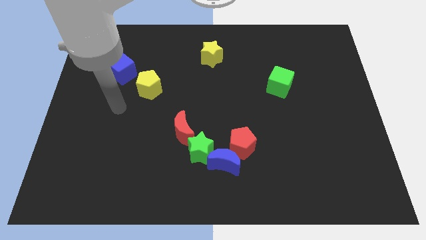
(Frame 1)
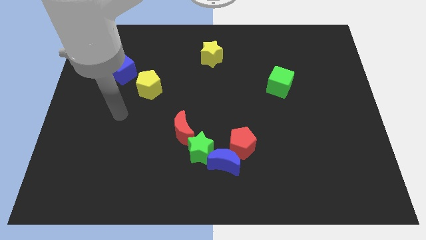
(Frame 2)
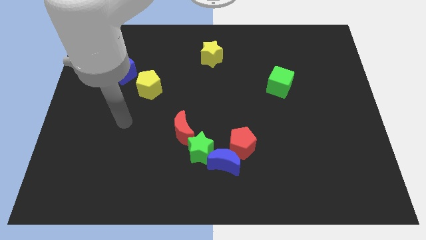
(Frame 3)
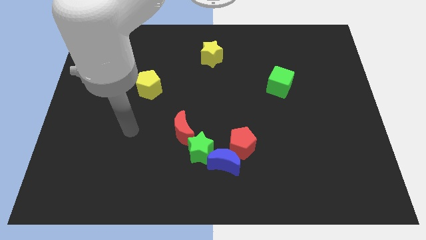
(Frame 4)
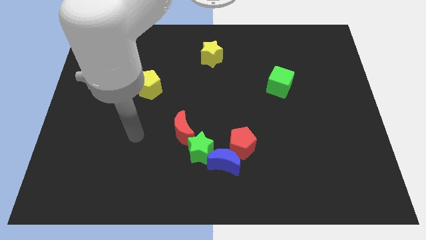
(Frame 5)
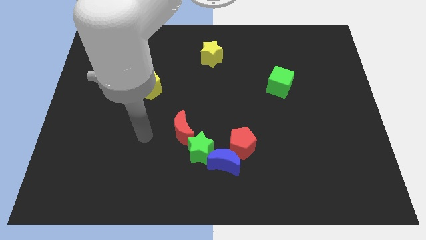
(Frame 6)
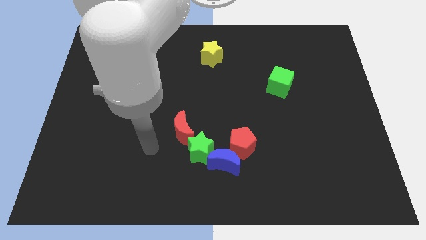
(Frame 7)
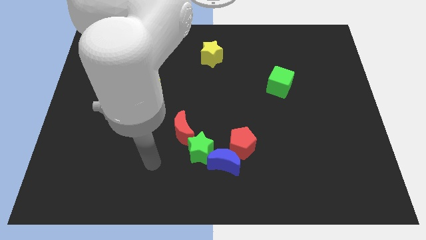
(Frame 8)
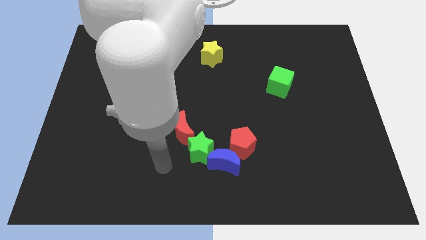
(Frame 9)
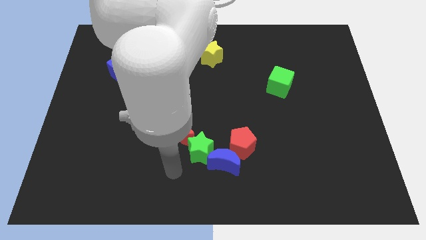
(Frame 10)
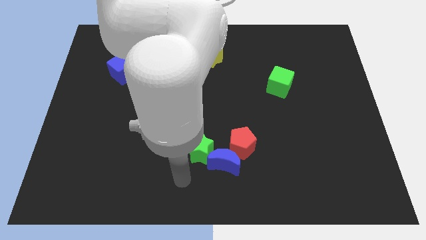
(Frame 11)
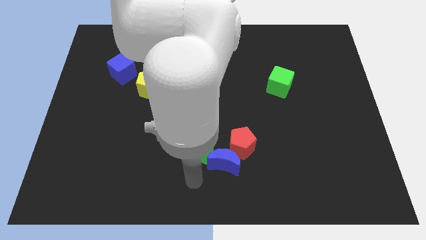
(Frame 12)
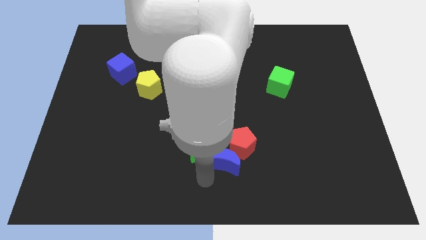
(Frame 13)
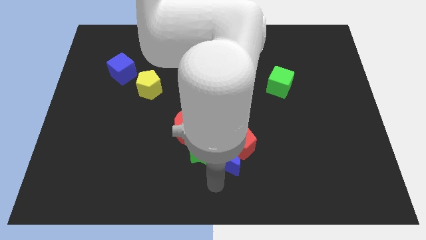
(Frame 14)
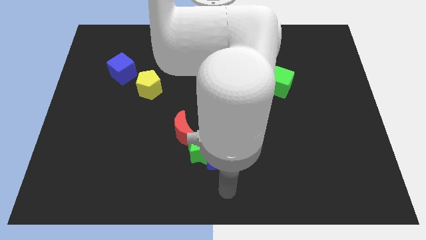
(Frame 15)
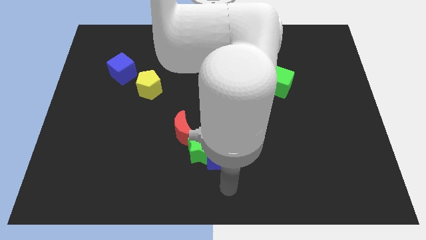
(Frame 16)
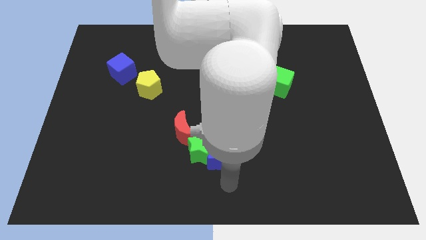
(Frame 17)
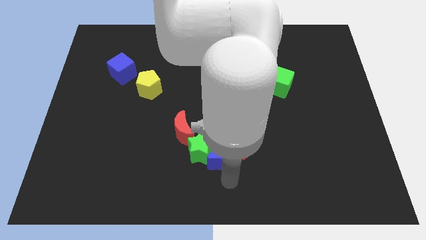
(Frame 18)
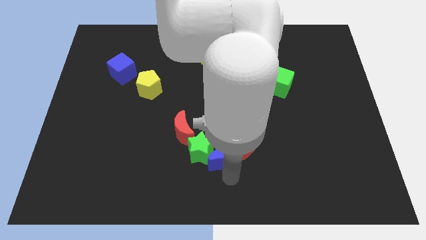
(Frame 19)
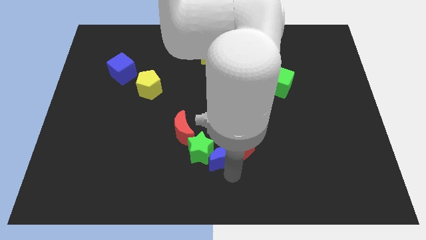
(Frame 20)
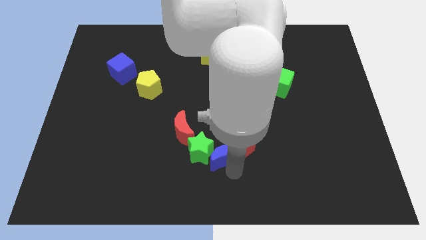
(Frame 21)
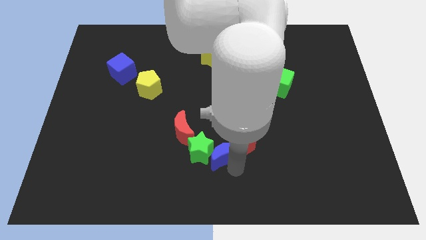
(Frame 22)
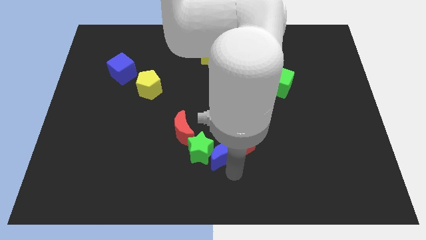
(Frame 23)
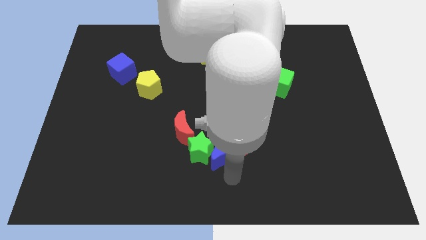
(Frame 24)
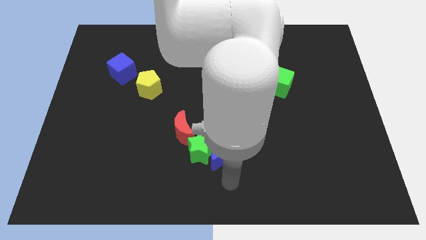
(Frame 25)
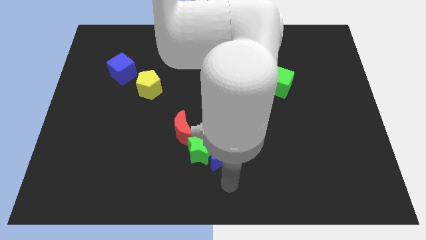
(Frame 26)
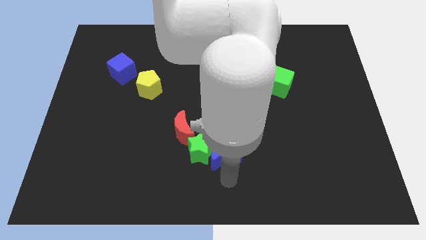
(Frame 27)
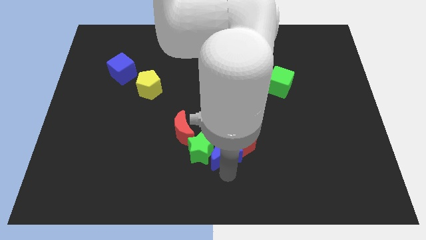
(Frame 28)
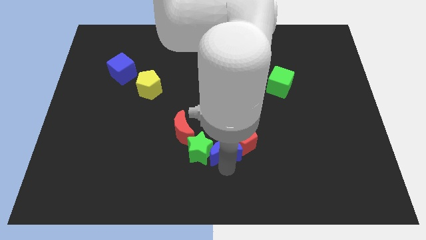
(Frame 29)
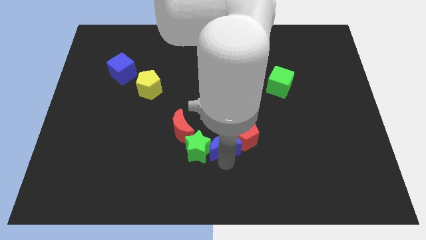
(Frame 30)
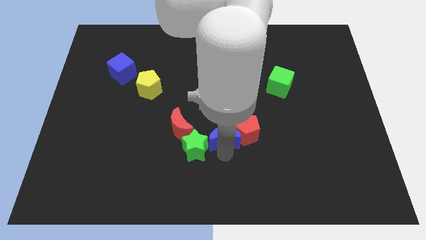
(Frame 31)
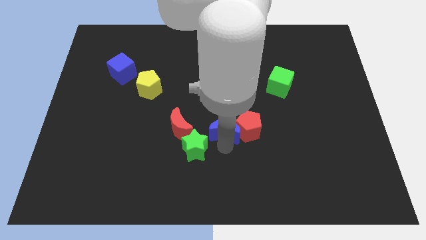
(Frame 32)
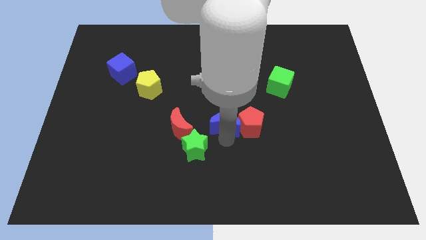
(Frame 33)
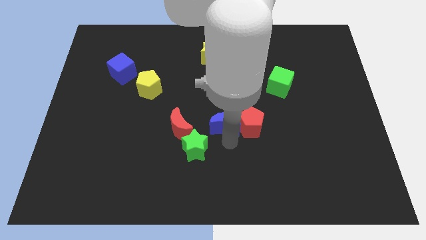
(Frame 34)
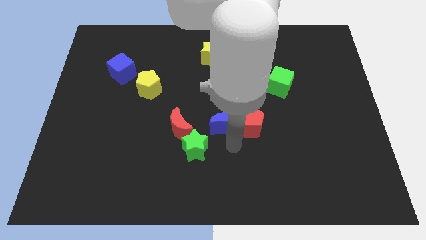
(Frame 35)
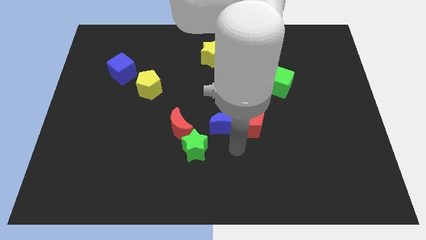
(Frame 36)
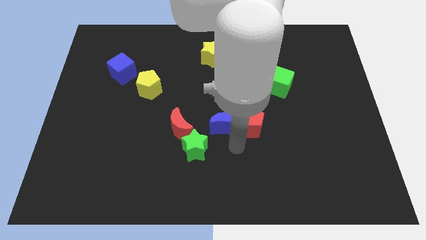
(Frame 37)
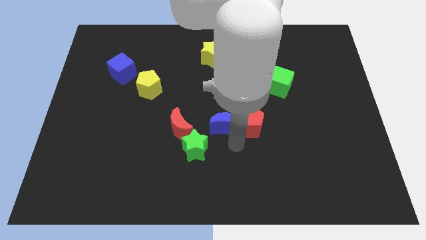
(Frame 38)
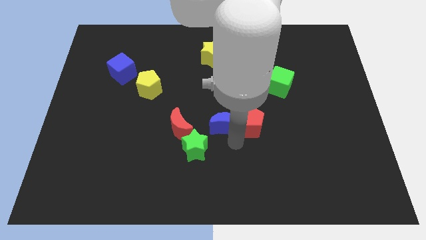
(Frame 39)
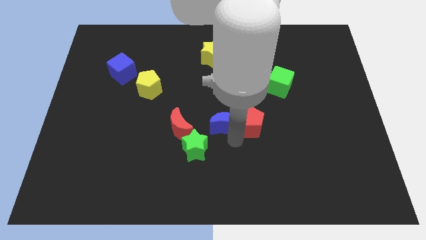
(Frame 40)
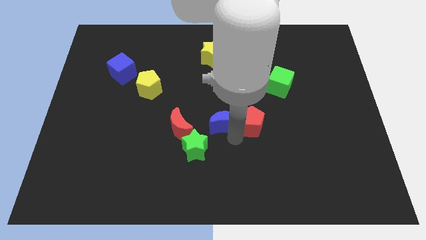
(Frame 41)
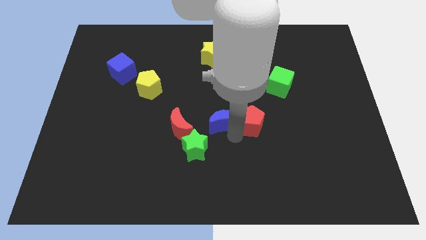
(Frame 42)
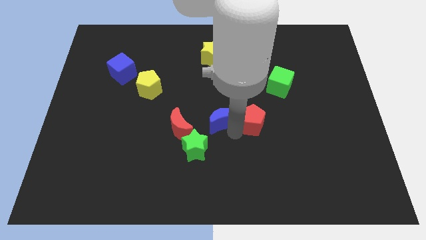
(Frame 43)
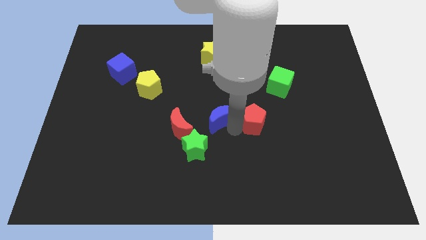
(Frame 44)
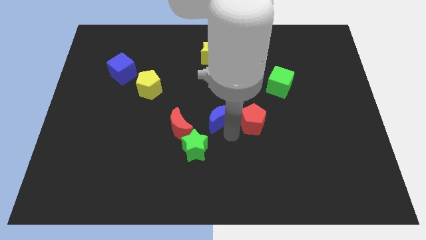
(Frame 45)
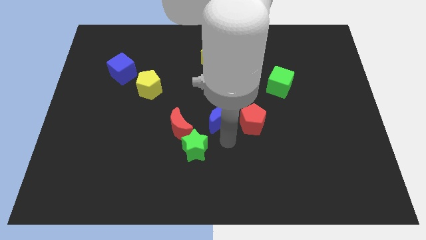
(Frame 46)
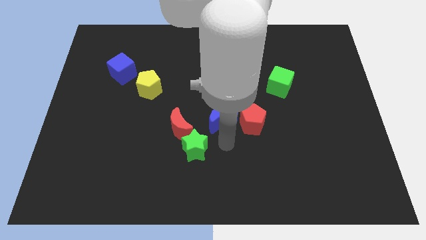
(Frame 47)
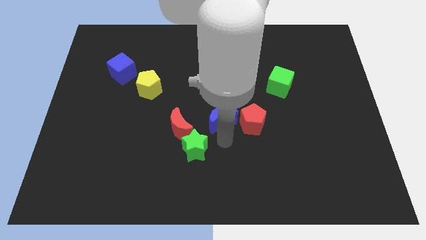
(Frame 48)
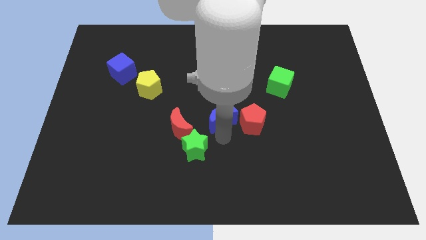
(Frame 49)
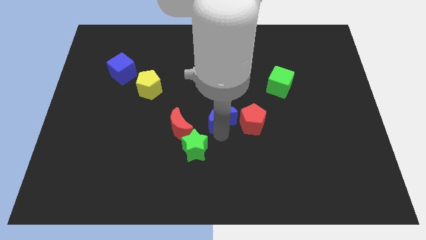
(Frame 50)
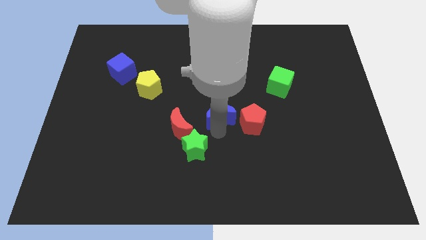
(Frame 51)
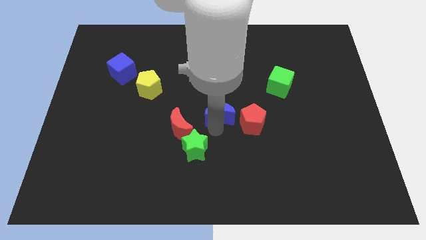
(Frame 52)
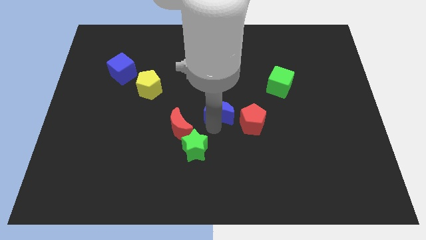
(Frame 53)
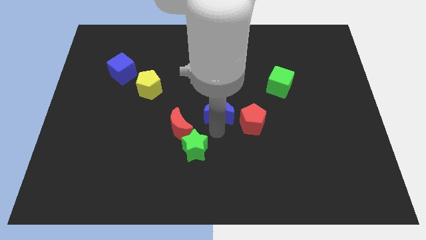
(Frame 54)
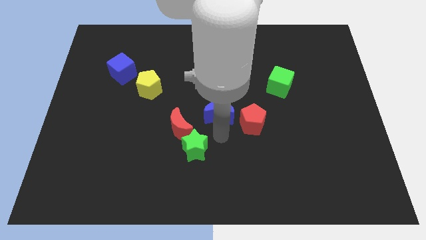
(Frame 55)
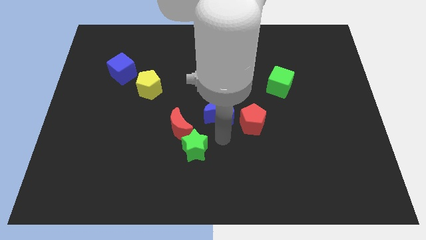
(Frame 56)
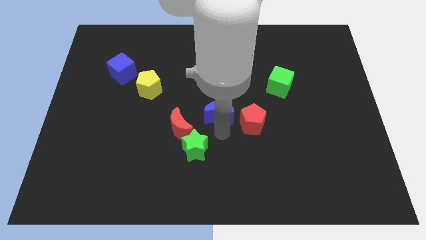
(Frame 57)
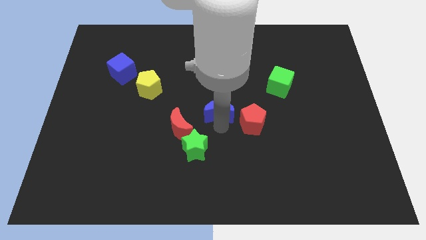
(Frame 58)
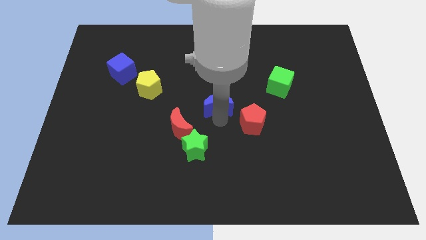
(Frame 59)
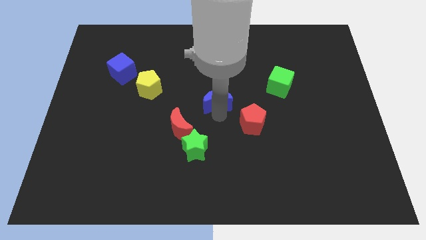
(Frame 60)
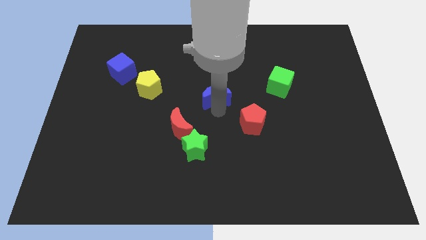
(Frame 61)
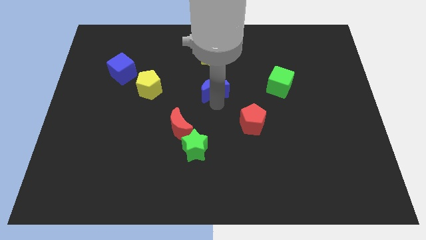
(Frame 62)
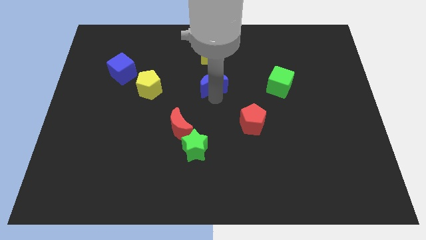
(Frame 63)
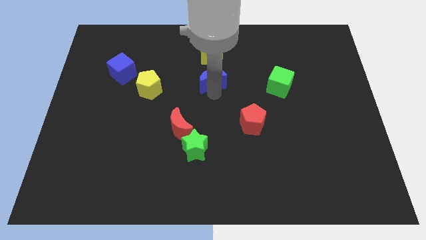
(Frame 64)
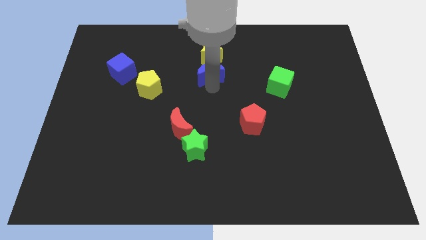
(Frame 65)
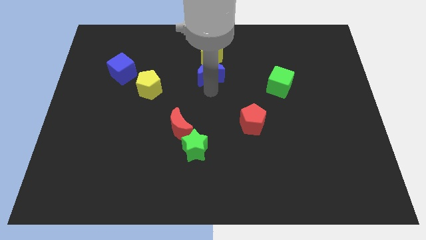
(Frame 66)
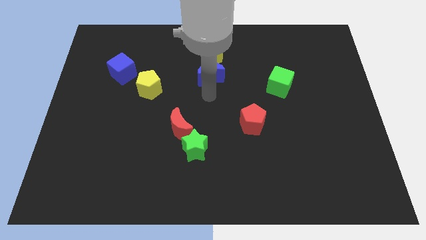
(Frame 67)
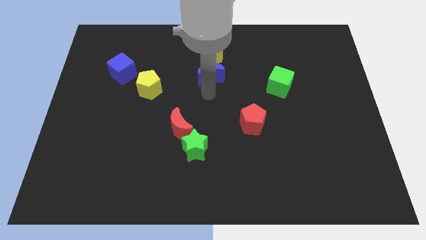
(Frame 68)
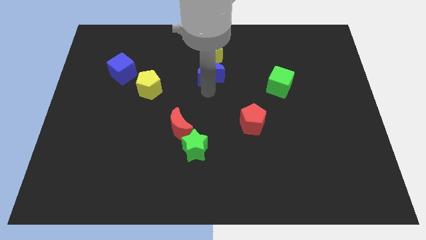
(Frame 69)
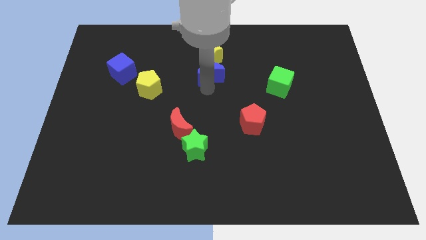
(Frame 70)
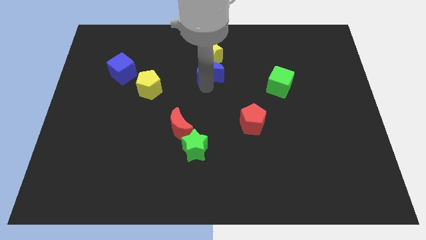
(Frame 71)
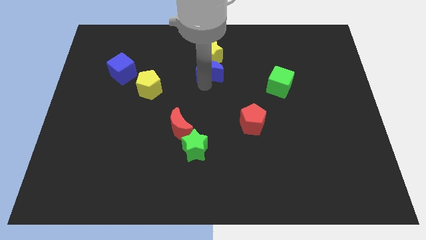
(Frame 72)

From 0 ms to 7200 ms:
move the blue moon to the yellow star
